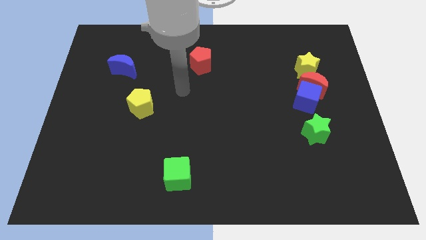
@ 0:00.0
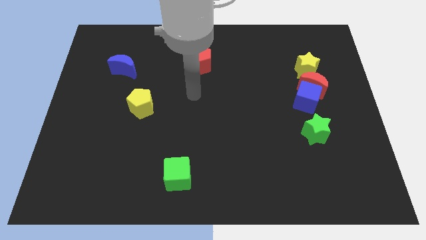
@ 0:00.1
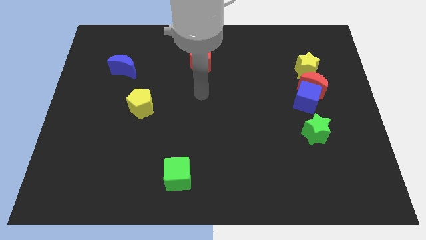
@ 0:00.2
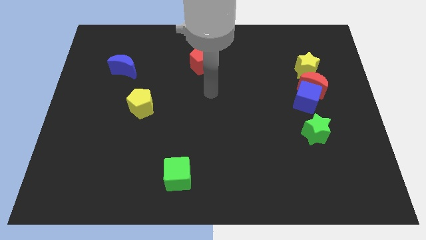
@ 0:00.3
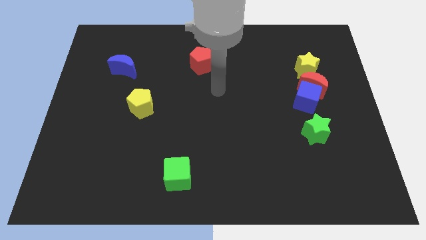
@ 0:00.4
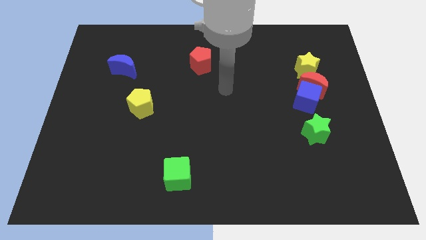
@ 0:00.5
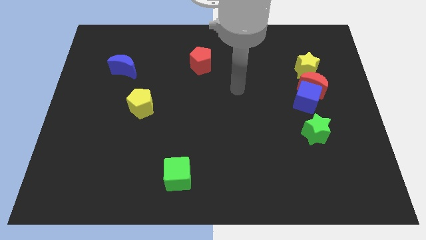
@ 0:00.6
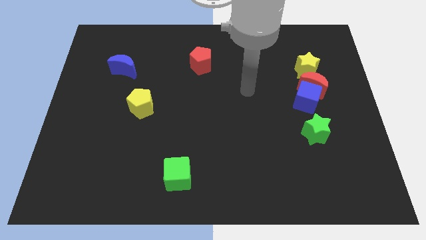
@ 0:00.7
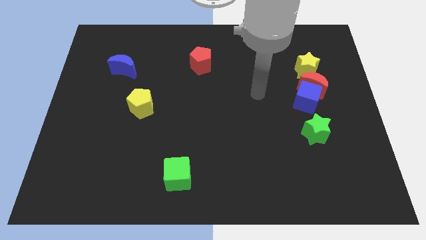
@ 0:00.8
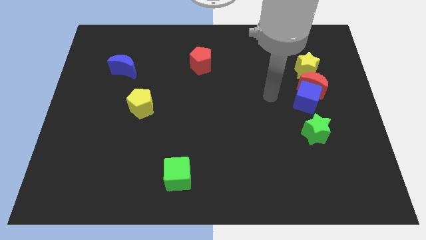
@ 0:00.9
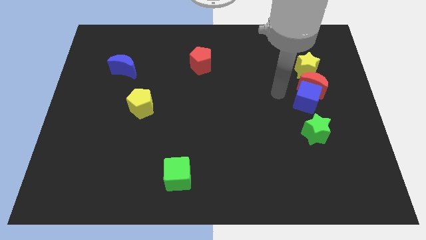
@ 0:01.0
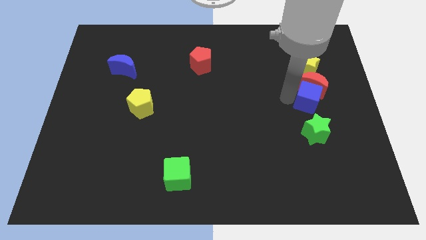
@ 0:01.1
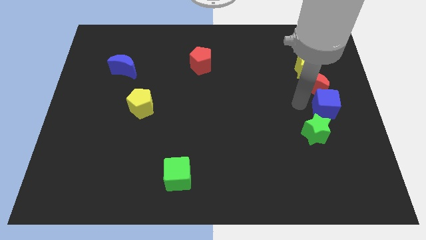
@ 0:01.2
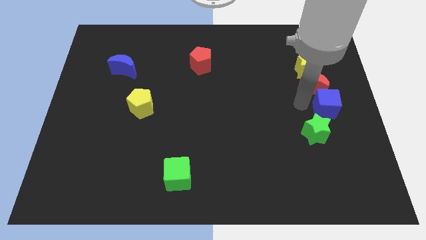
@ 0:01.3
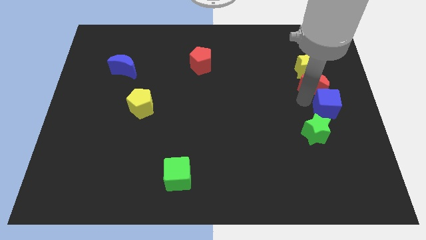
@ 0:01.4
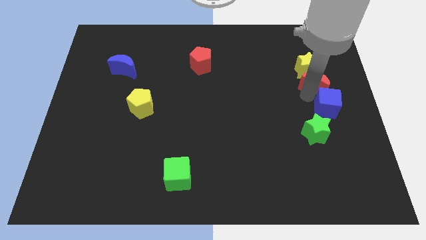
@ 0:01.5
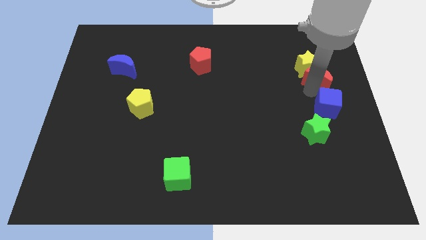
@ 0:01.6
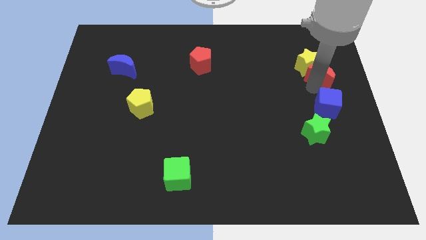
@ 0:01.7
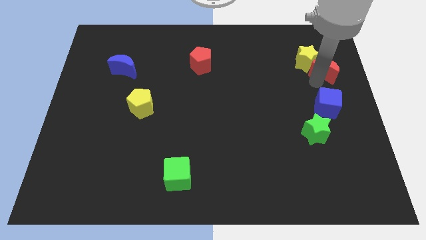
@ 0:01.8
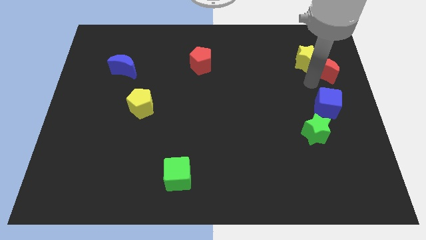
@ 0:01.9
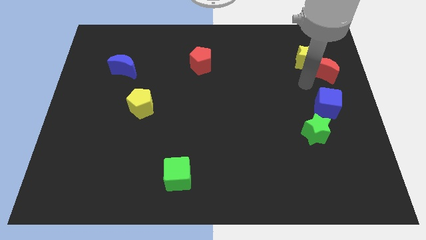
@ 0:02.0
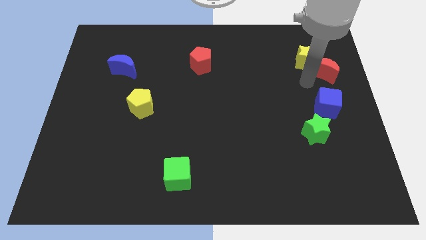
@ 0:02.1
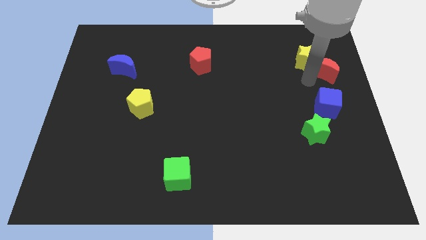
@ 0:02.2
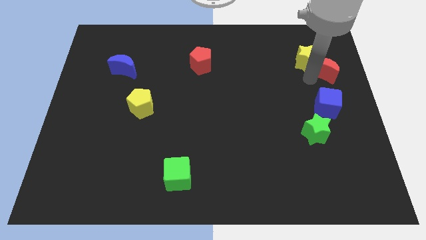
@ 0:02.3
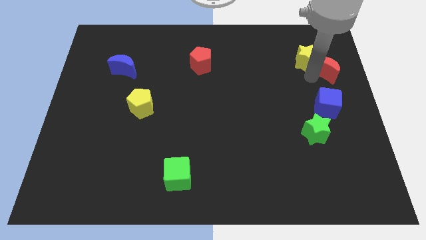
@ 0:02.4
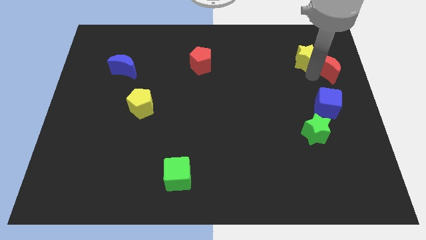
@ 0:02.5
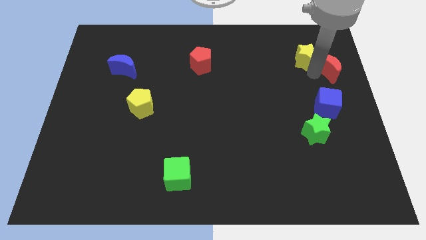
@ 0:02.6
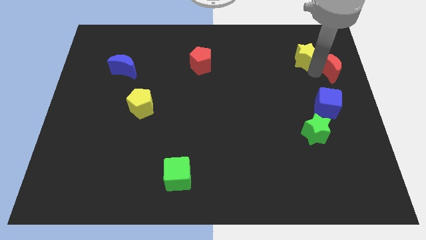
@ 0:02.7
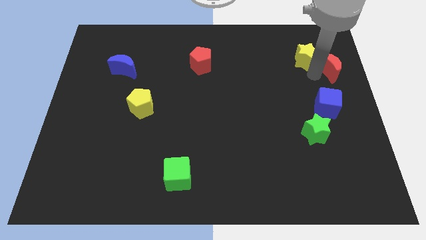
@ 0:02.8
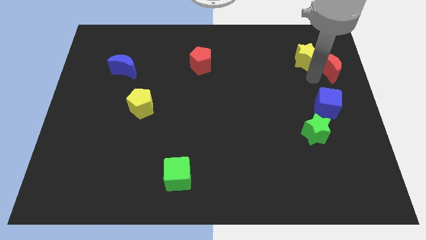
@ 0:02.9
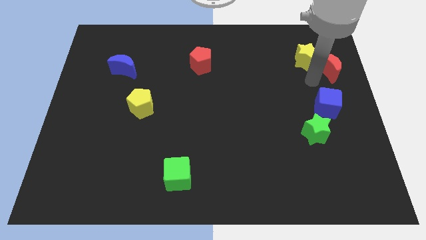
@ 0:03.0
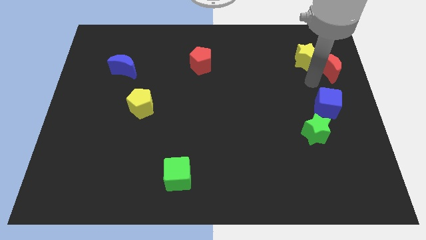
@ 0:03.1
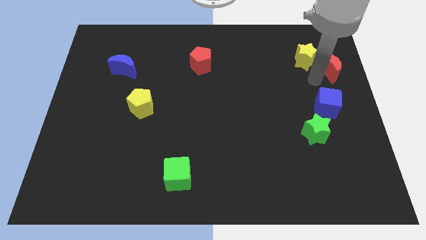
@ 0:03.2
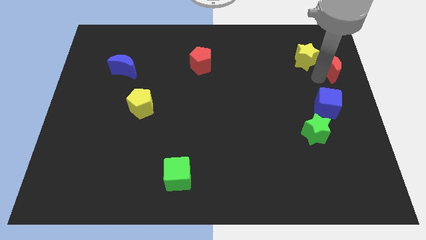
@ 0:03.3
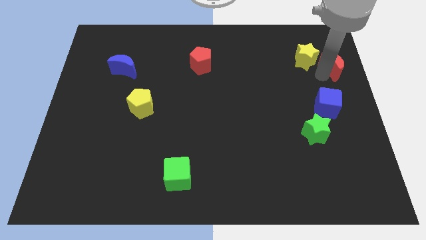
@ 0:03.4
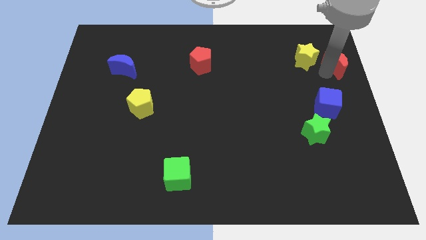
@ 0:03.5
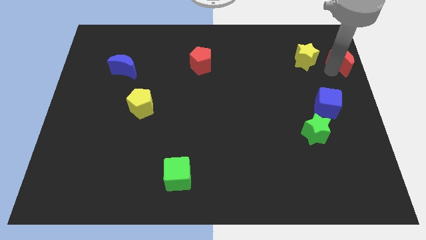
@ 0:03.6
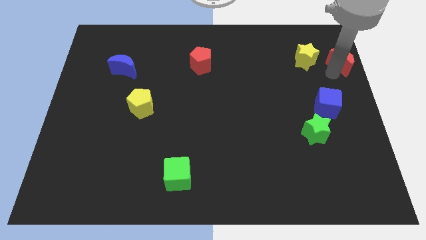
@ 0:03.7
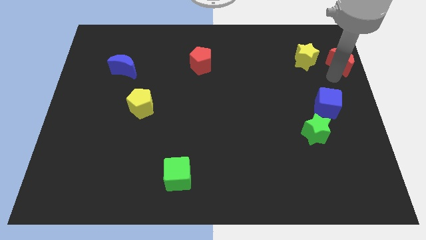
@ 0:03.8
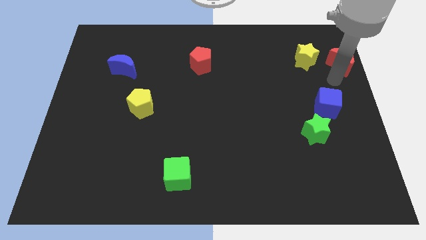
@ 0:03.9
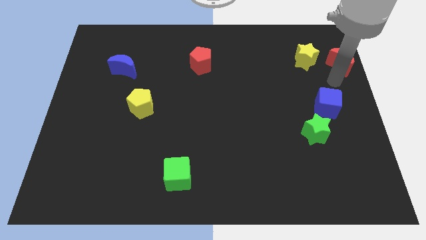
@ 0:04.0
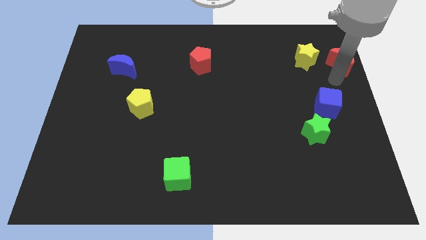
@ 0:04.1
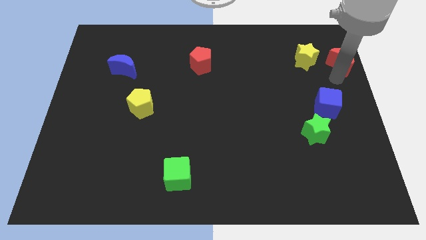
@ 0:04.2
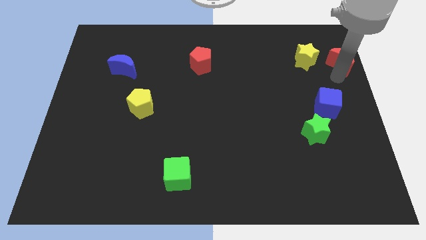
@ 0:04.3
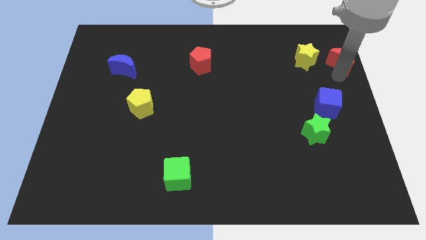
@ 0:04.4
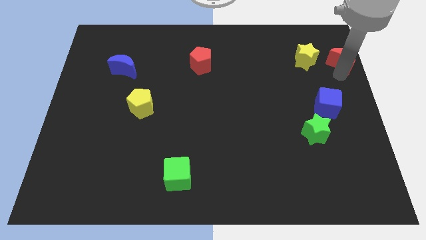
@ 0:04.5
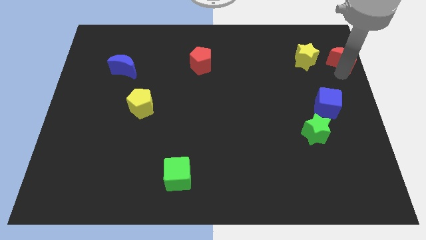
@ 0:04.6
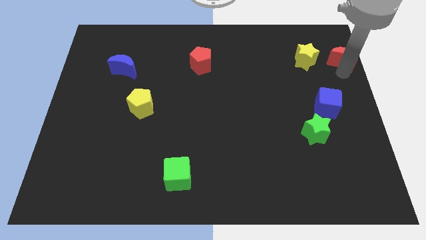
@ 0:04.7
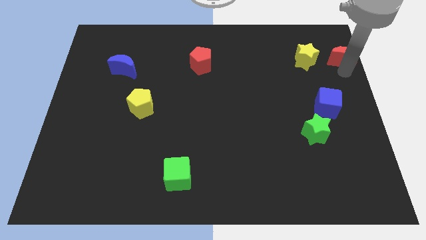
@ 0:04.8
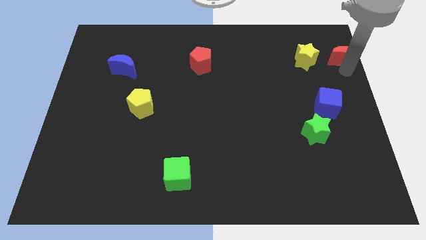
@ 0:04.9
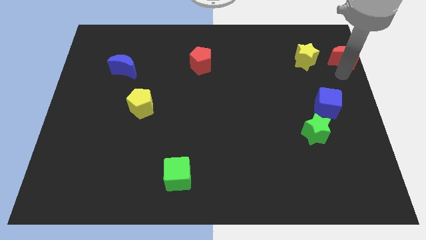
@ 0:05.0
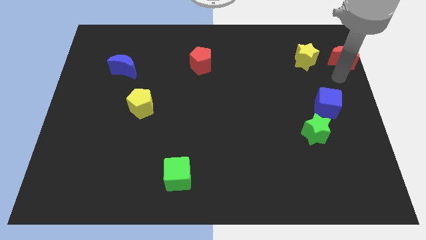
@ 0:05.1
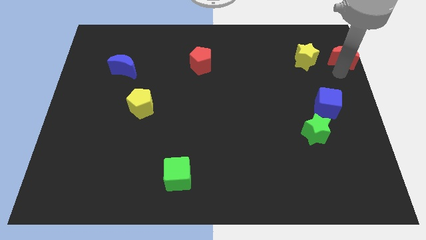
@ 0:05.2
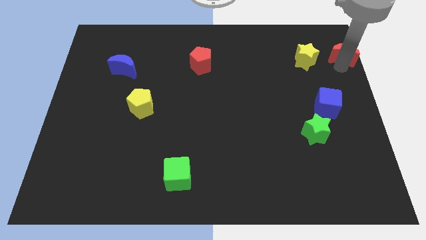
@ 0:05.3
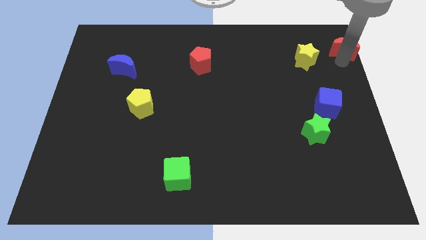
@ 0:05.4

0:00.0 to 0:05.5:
move the red moon to the top right
